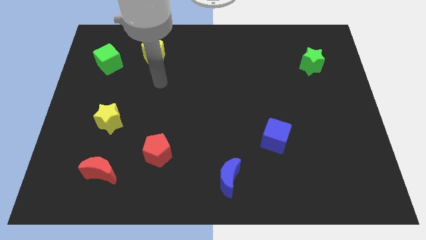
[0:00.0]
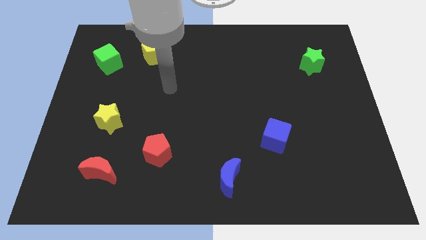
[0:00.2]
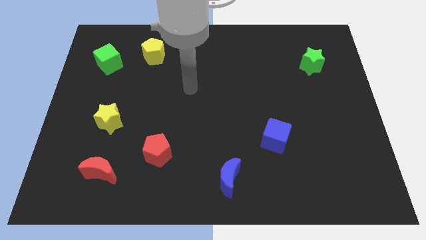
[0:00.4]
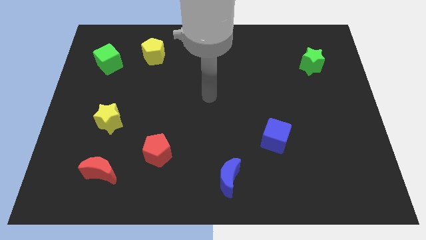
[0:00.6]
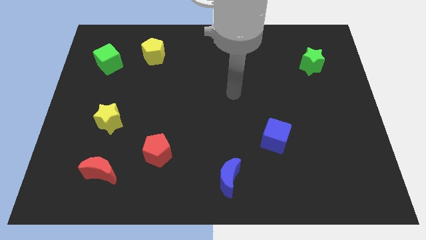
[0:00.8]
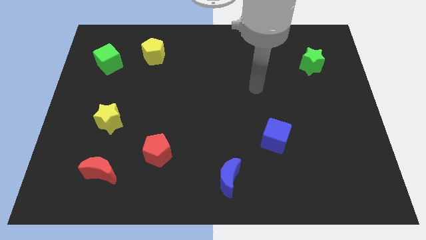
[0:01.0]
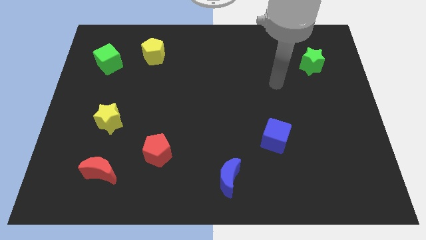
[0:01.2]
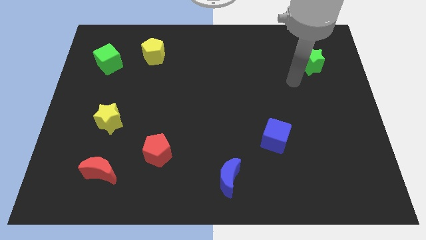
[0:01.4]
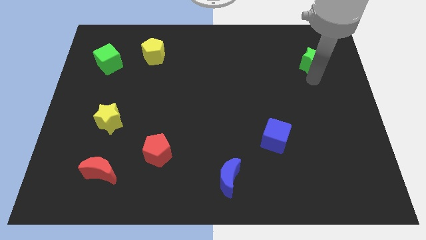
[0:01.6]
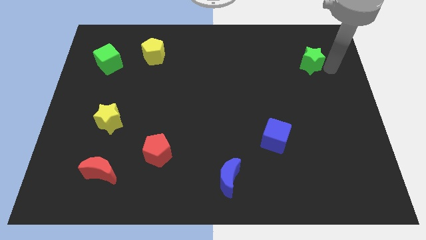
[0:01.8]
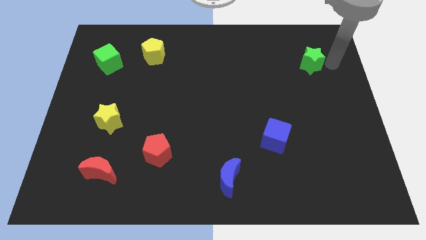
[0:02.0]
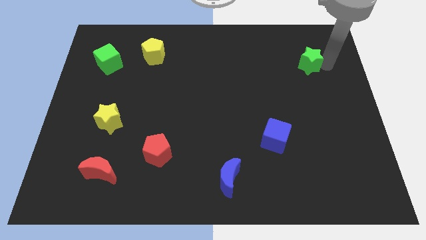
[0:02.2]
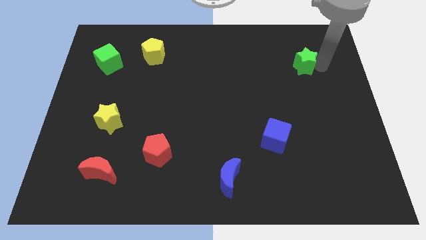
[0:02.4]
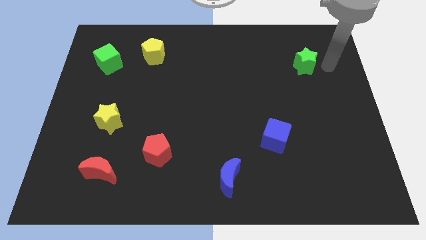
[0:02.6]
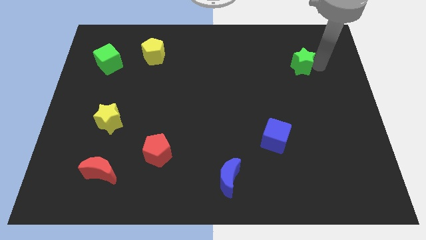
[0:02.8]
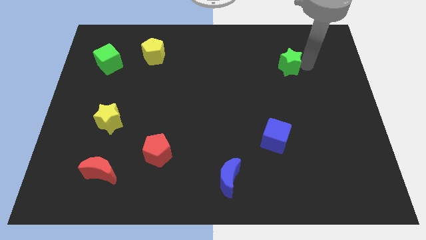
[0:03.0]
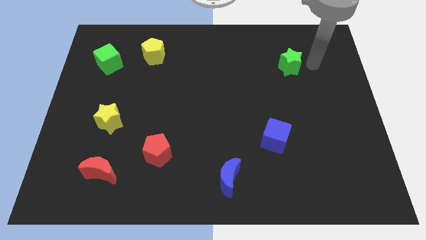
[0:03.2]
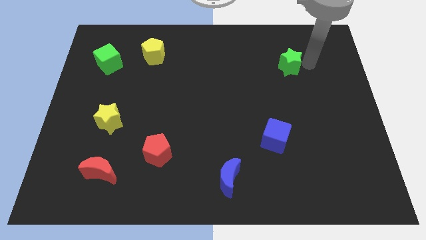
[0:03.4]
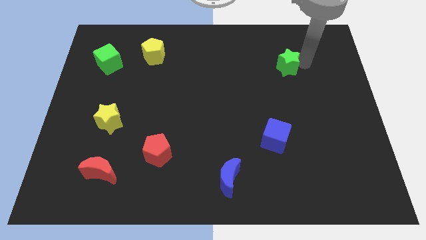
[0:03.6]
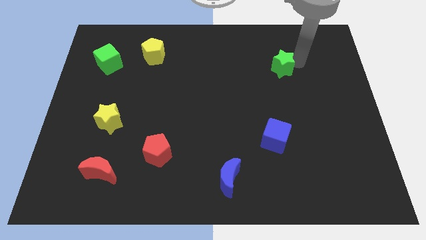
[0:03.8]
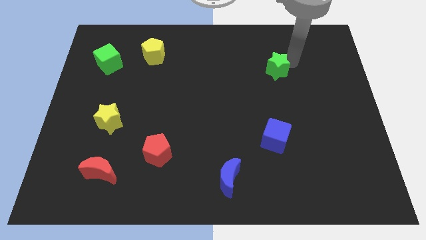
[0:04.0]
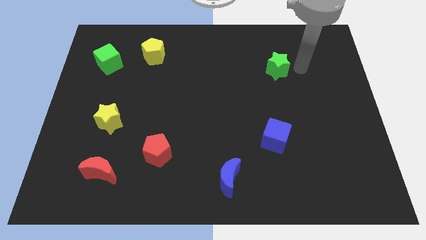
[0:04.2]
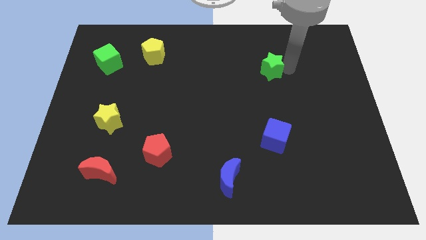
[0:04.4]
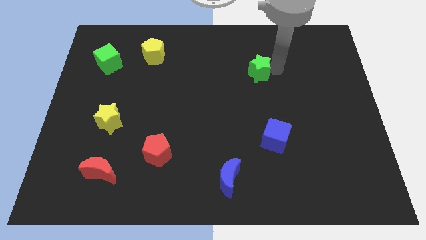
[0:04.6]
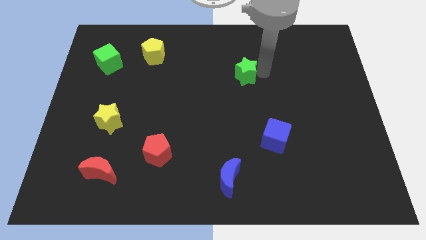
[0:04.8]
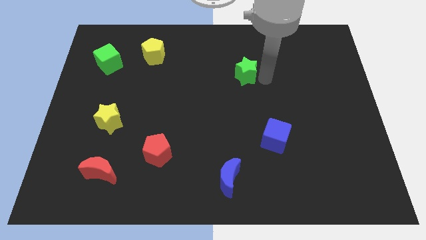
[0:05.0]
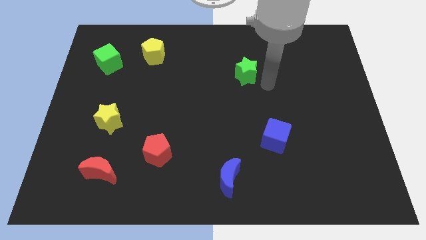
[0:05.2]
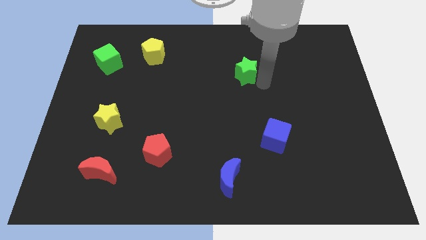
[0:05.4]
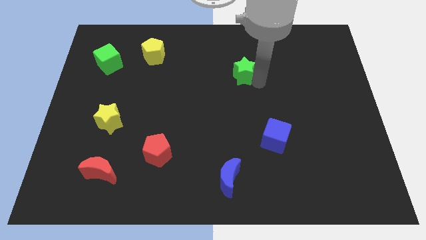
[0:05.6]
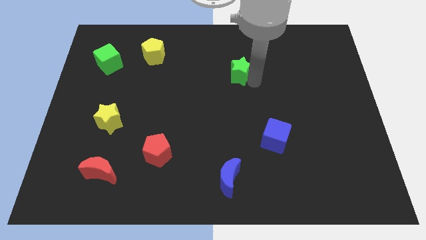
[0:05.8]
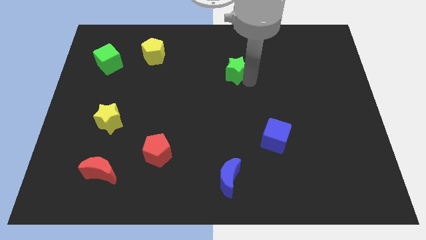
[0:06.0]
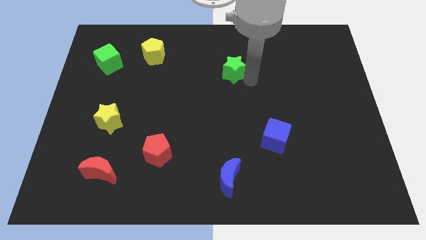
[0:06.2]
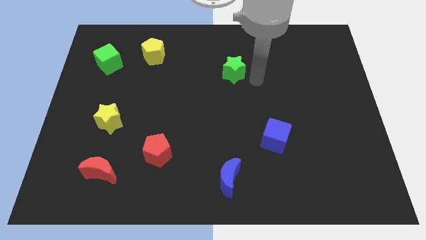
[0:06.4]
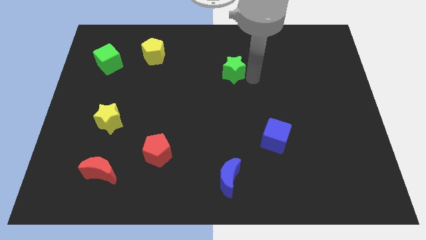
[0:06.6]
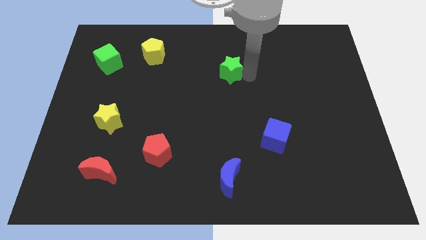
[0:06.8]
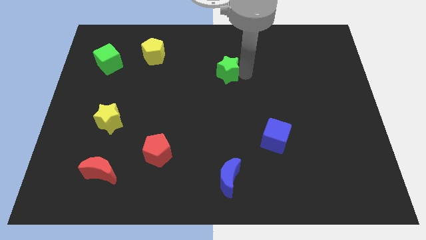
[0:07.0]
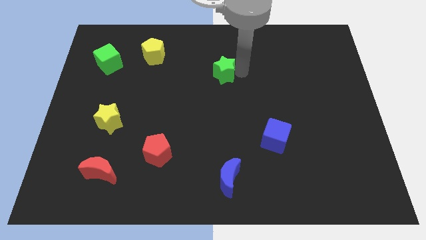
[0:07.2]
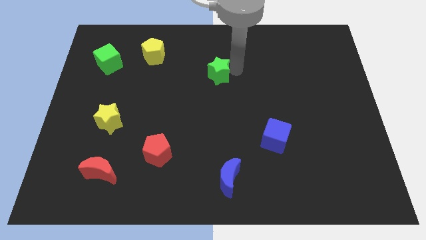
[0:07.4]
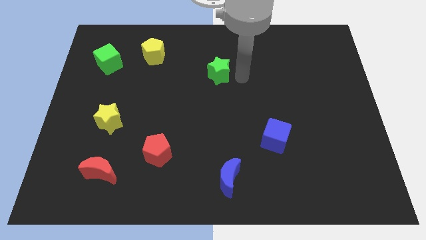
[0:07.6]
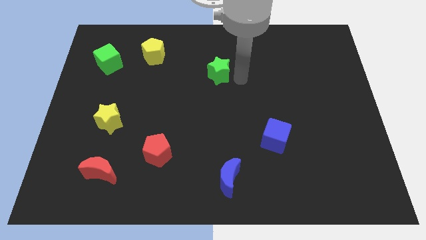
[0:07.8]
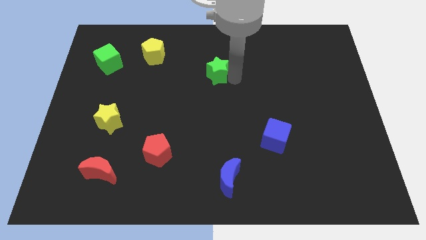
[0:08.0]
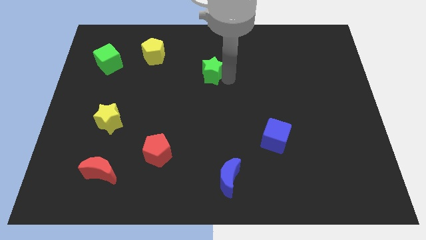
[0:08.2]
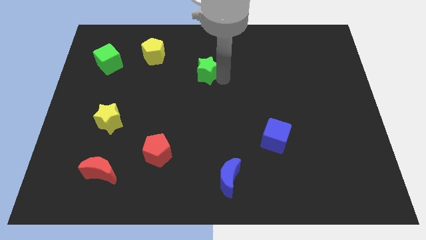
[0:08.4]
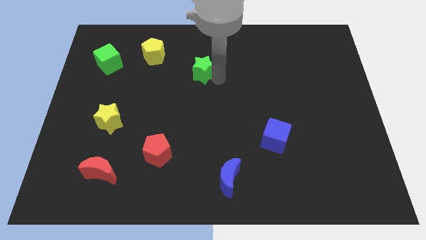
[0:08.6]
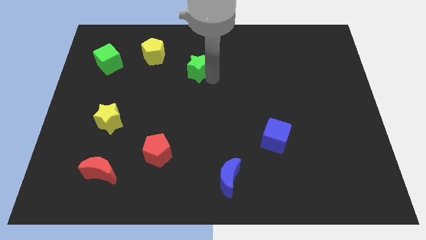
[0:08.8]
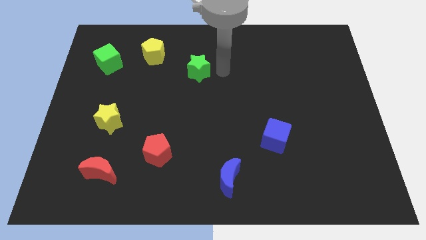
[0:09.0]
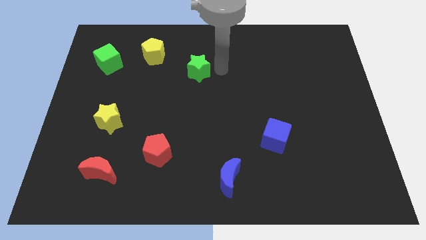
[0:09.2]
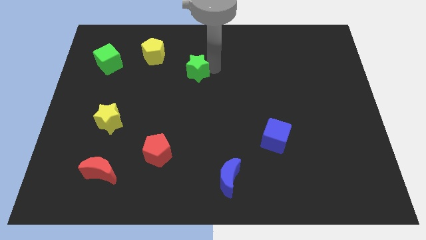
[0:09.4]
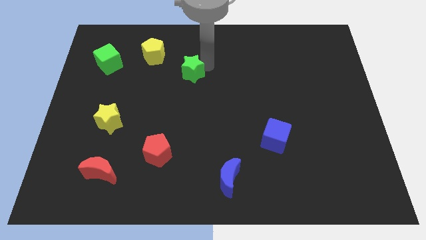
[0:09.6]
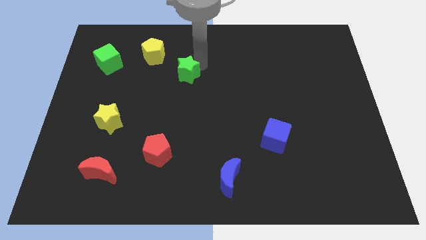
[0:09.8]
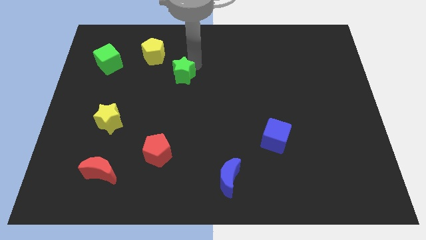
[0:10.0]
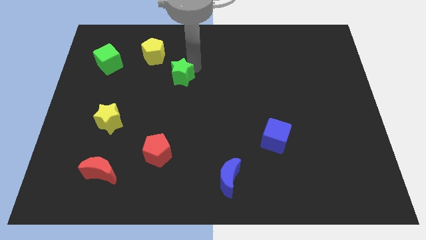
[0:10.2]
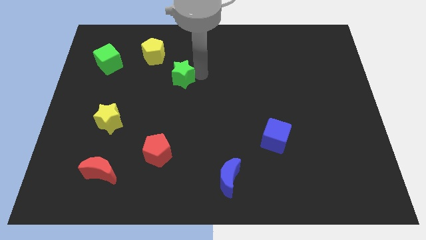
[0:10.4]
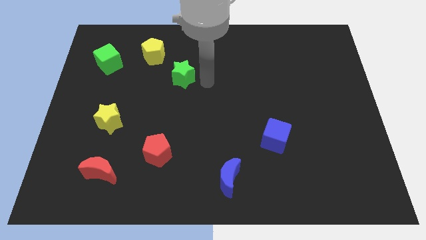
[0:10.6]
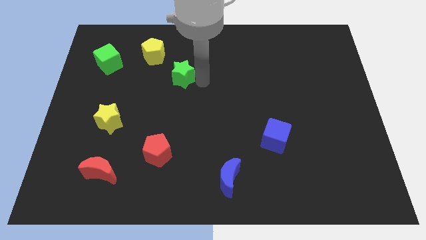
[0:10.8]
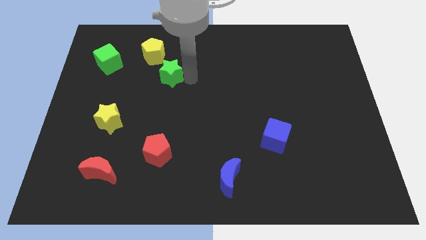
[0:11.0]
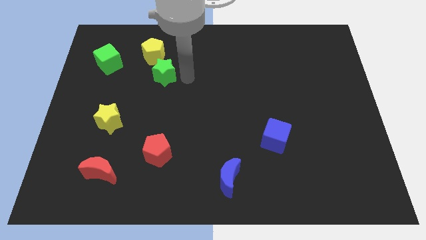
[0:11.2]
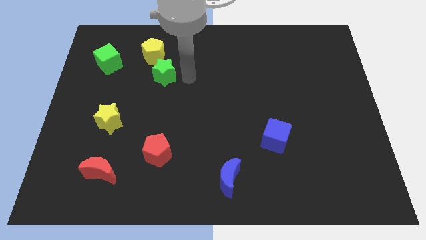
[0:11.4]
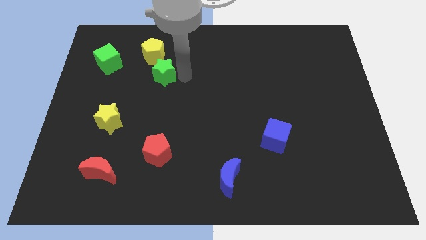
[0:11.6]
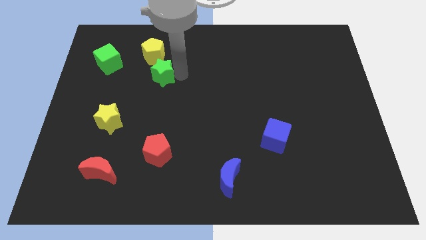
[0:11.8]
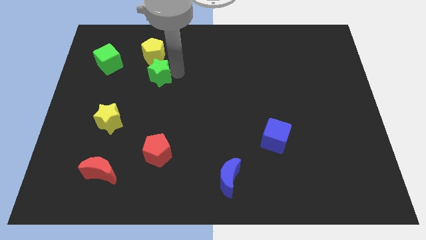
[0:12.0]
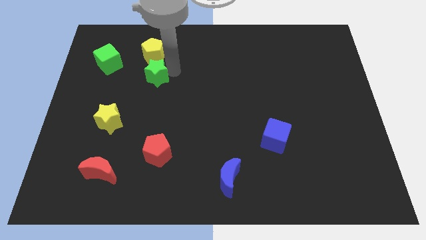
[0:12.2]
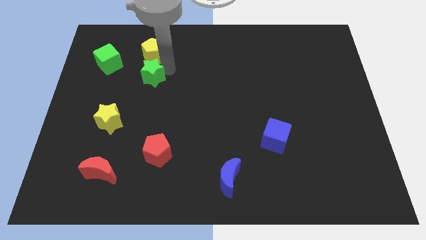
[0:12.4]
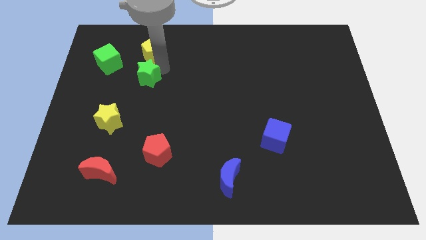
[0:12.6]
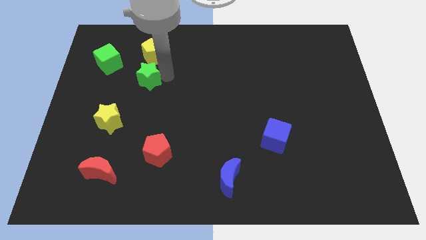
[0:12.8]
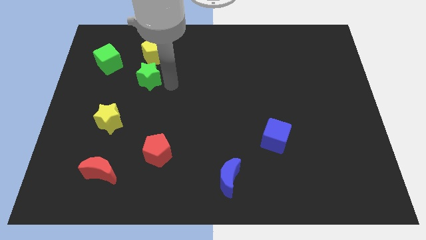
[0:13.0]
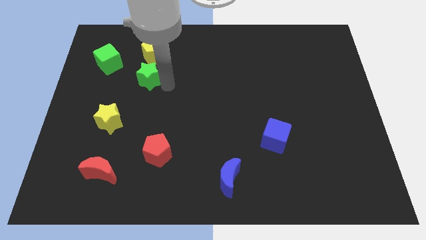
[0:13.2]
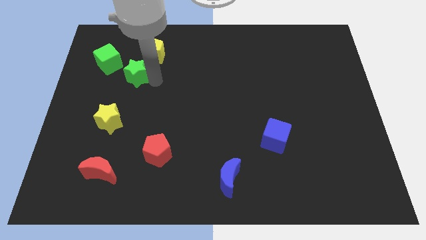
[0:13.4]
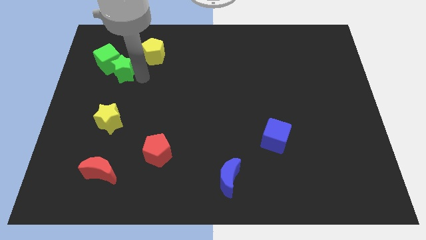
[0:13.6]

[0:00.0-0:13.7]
move the green star close to the green cube
